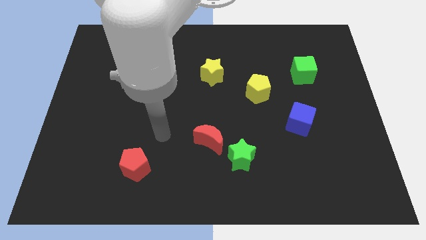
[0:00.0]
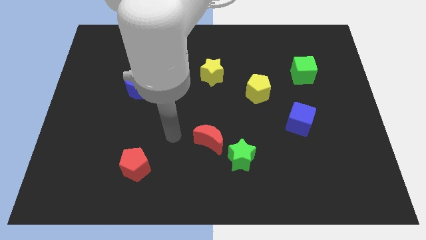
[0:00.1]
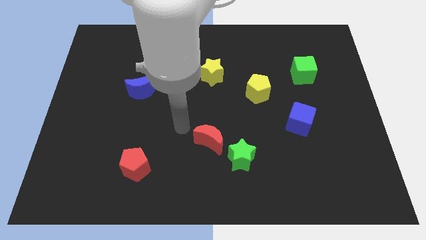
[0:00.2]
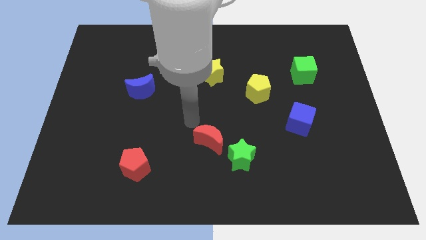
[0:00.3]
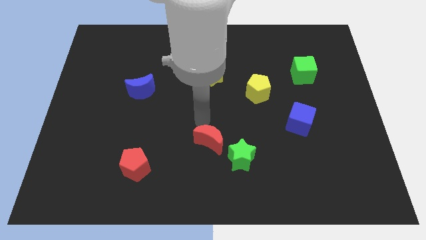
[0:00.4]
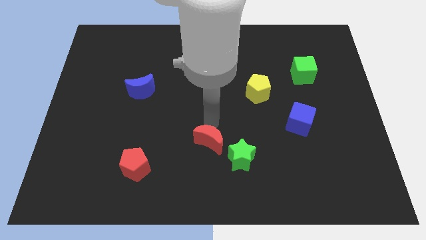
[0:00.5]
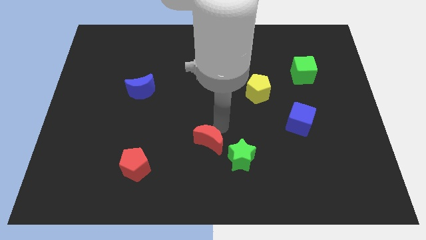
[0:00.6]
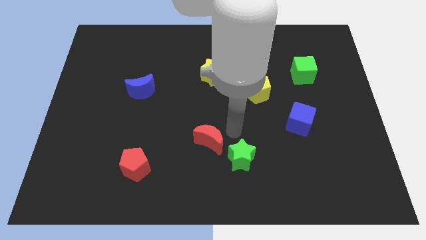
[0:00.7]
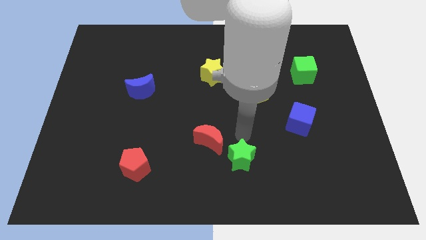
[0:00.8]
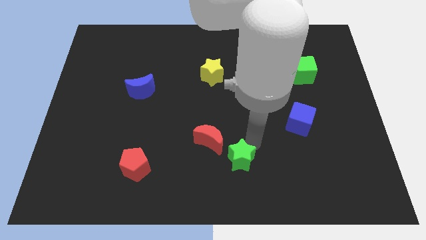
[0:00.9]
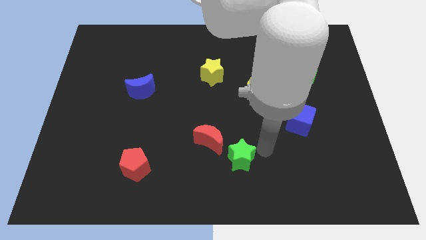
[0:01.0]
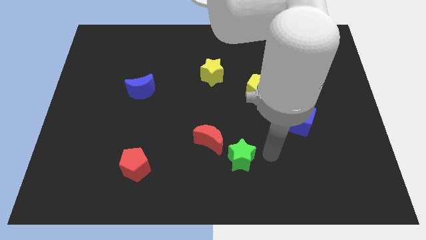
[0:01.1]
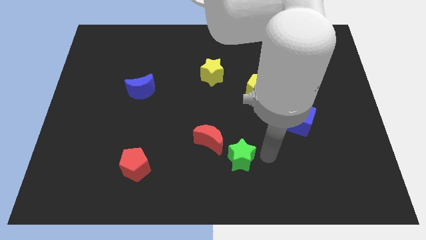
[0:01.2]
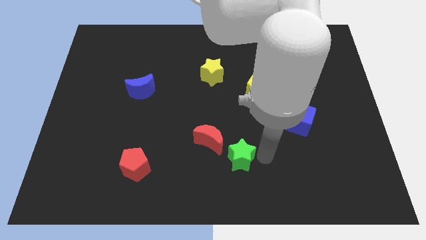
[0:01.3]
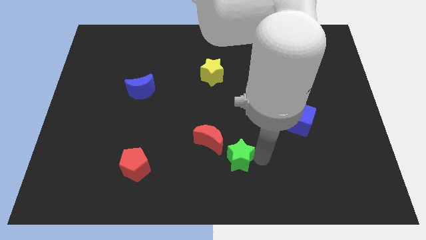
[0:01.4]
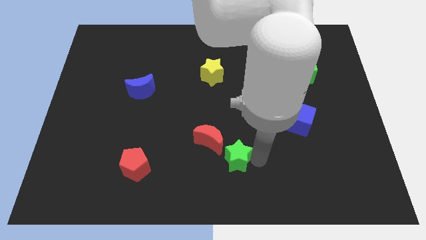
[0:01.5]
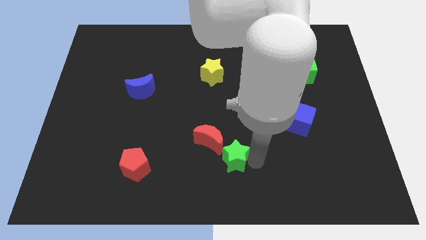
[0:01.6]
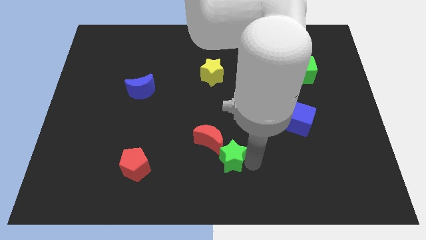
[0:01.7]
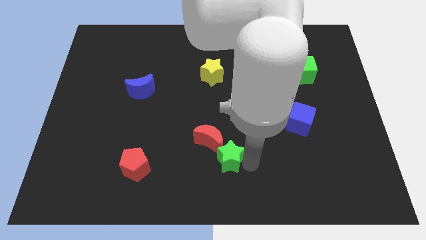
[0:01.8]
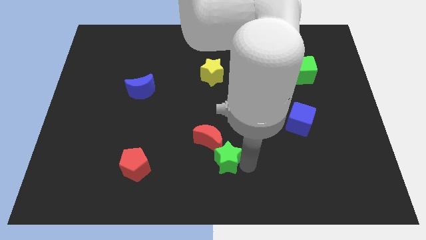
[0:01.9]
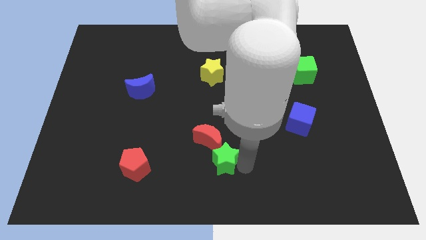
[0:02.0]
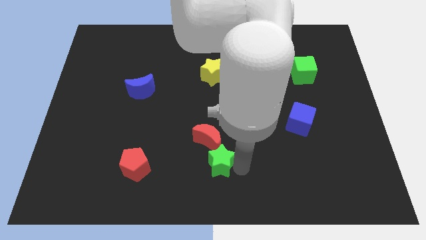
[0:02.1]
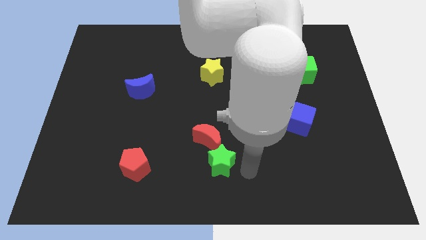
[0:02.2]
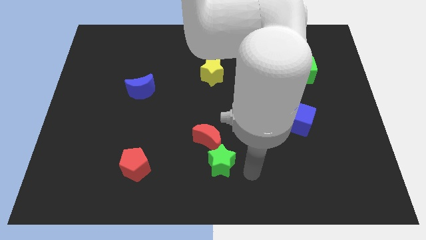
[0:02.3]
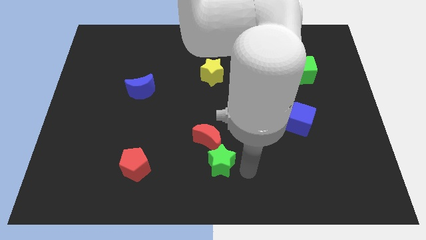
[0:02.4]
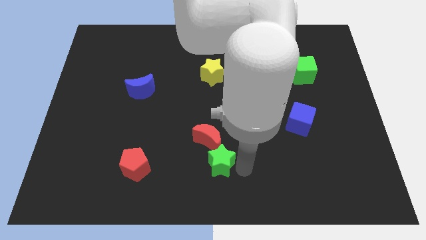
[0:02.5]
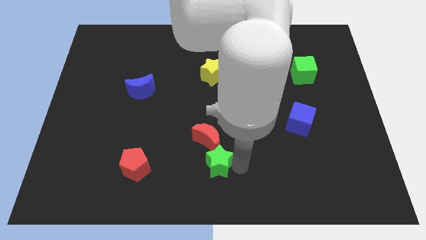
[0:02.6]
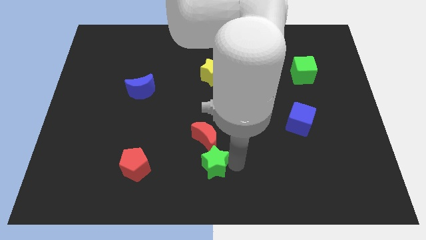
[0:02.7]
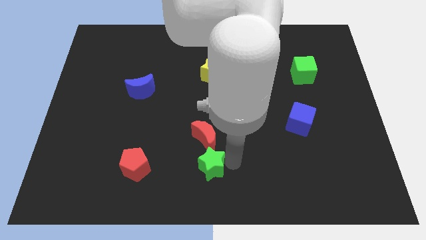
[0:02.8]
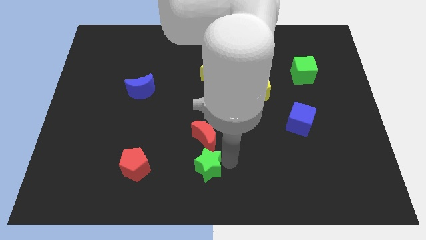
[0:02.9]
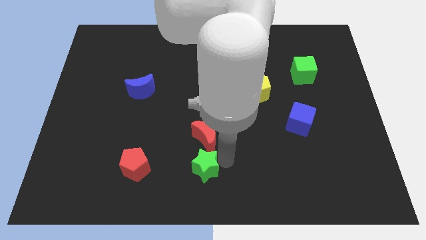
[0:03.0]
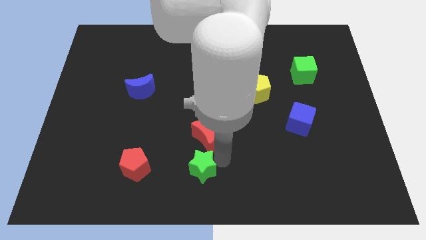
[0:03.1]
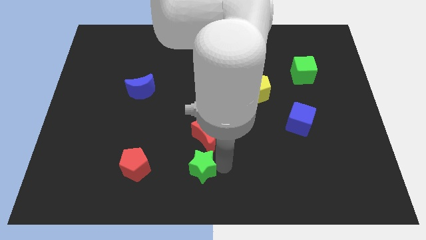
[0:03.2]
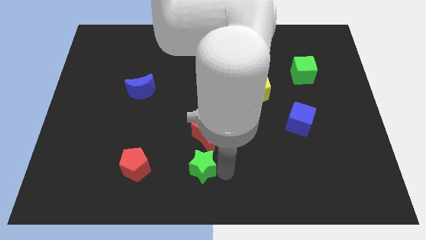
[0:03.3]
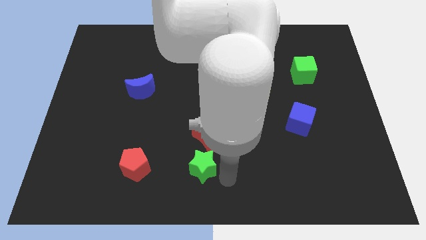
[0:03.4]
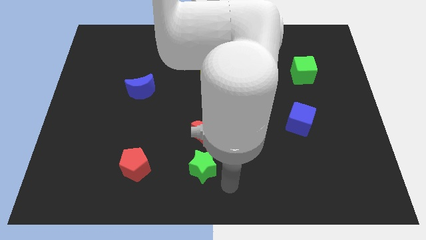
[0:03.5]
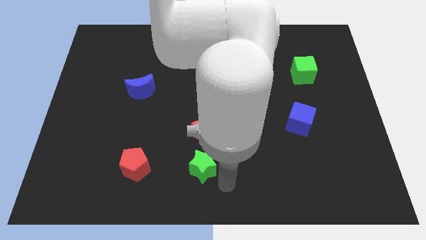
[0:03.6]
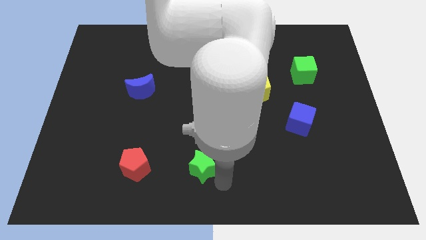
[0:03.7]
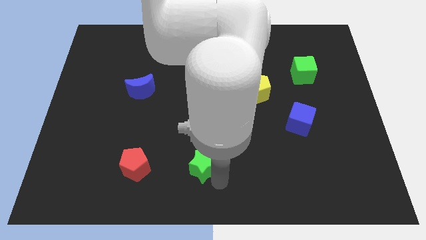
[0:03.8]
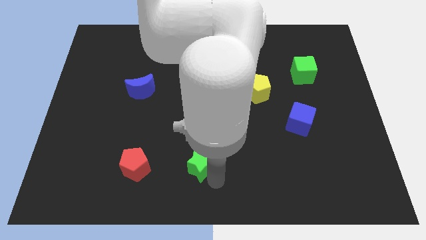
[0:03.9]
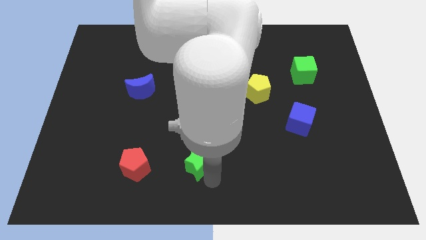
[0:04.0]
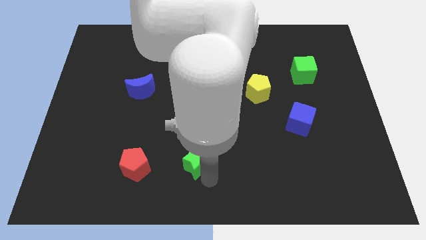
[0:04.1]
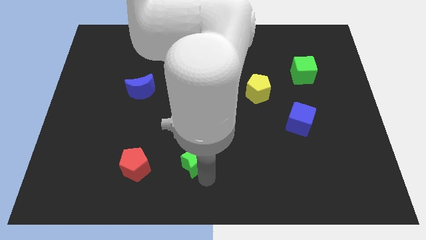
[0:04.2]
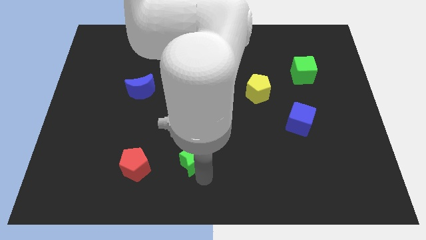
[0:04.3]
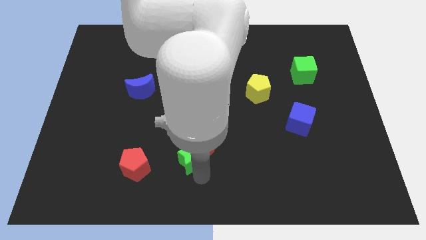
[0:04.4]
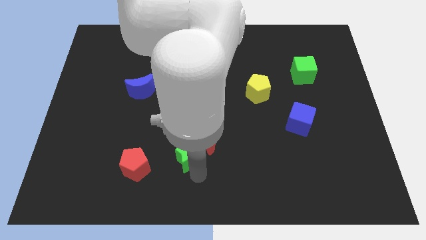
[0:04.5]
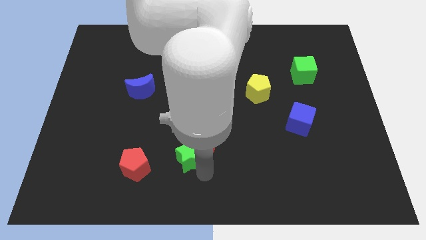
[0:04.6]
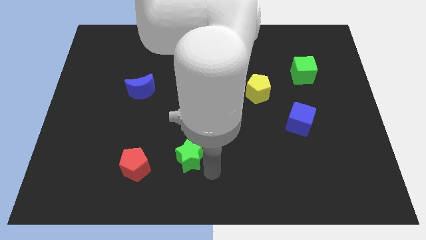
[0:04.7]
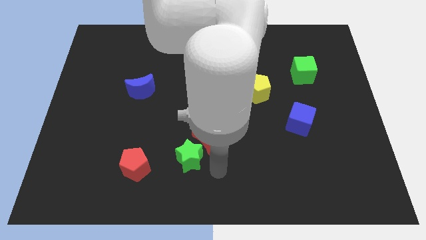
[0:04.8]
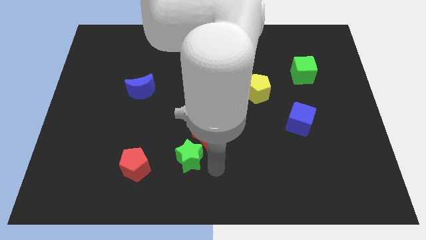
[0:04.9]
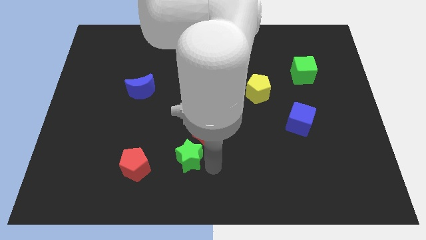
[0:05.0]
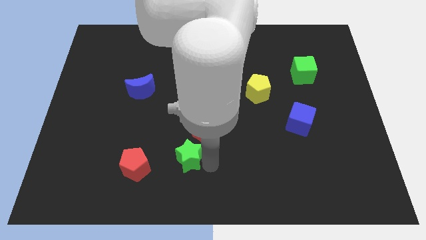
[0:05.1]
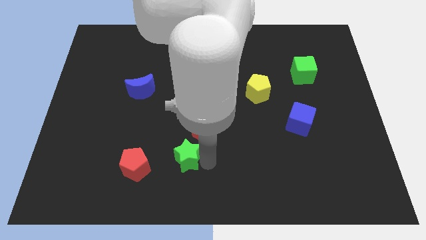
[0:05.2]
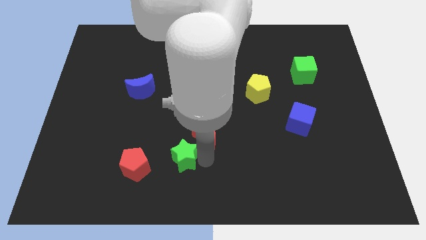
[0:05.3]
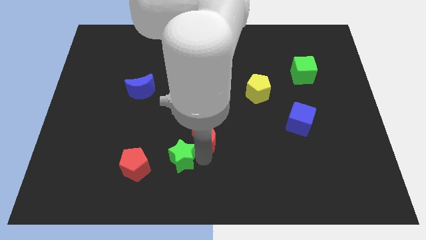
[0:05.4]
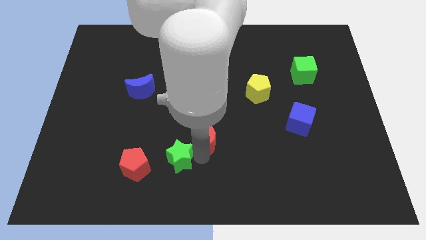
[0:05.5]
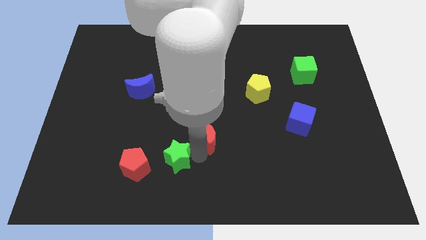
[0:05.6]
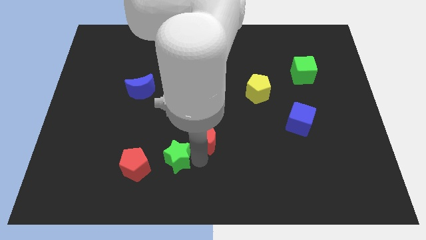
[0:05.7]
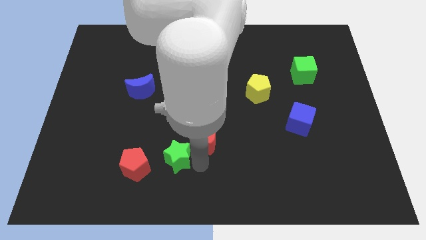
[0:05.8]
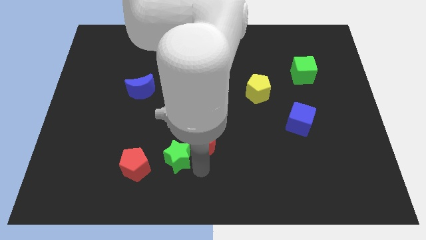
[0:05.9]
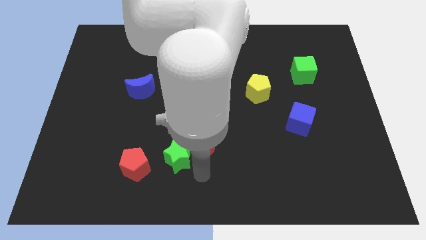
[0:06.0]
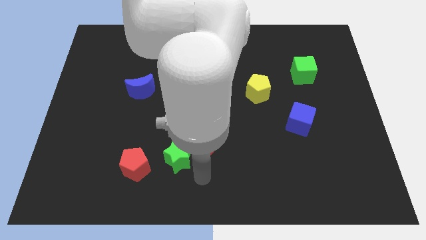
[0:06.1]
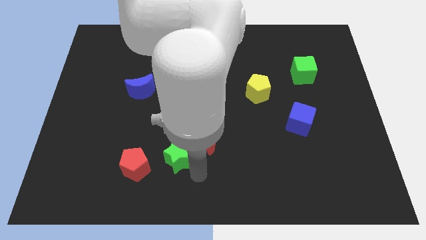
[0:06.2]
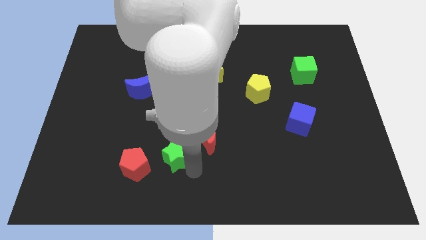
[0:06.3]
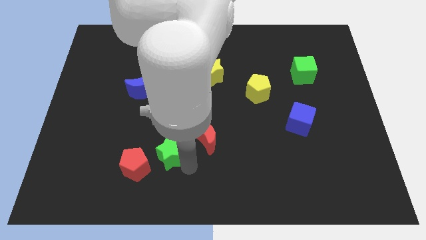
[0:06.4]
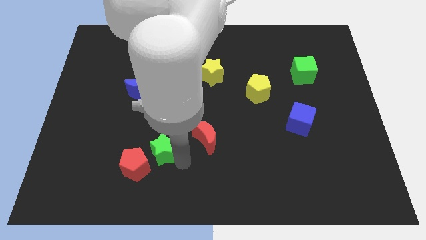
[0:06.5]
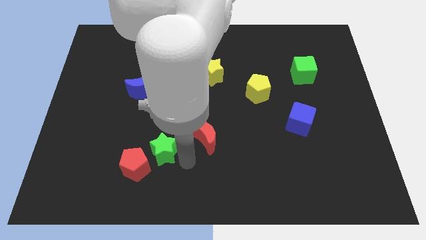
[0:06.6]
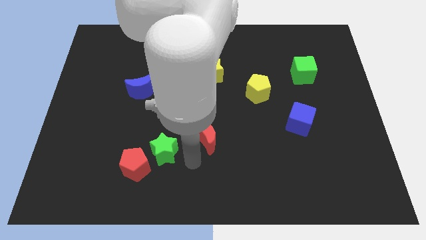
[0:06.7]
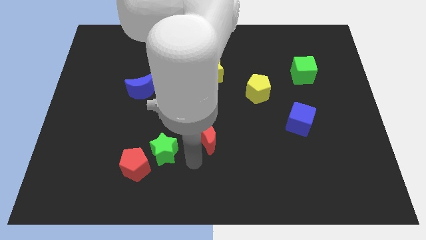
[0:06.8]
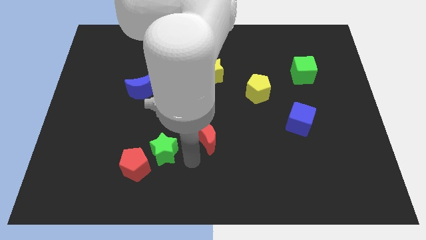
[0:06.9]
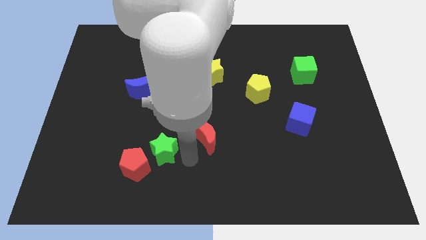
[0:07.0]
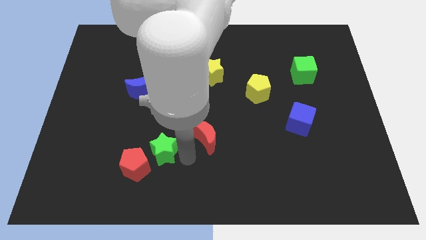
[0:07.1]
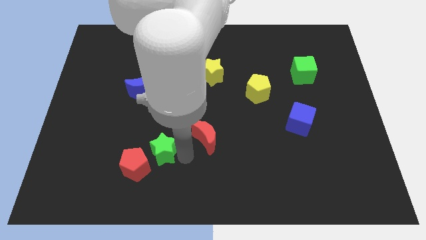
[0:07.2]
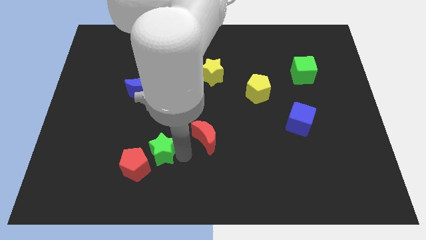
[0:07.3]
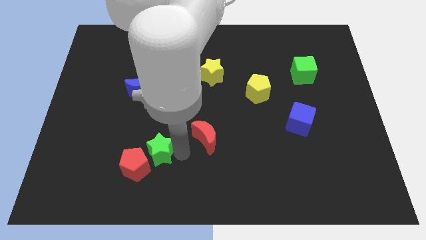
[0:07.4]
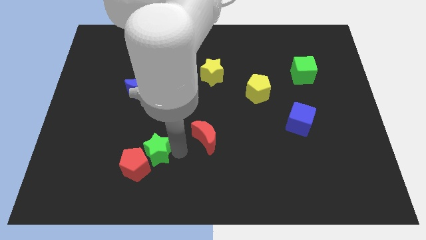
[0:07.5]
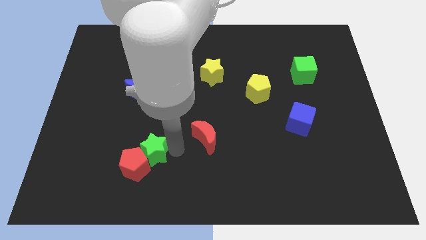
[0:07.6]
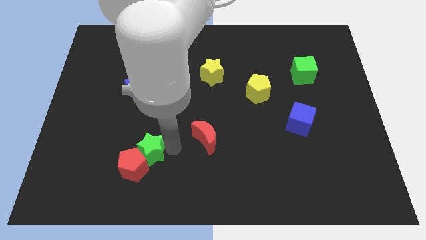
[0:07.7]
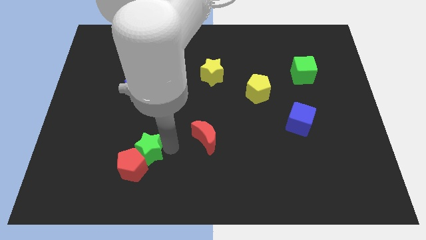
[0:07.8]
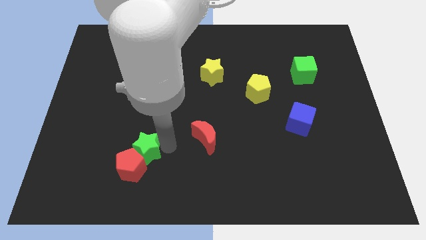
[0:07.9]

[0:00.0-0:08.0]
move the green star to the left
